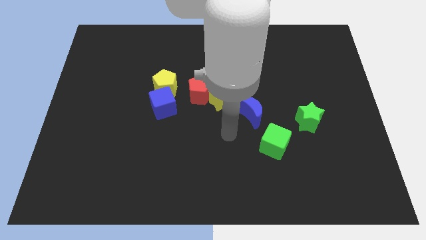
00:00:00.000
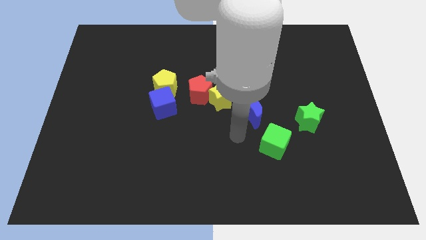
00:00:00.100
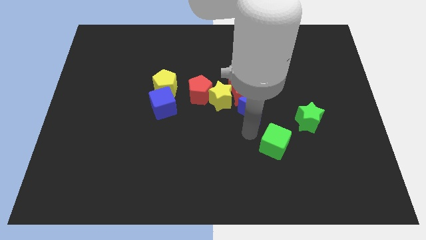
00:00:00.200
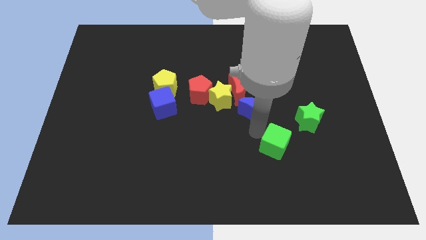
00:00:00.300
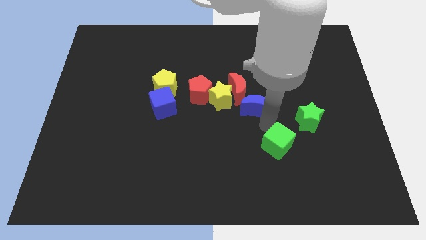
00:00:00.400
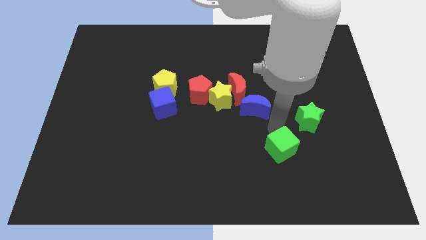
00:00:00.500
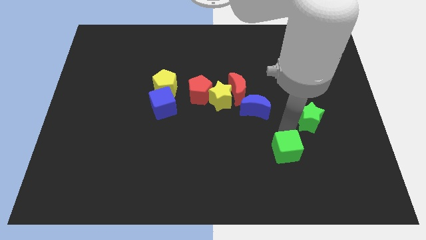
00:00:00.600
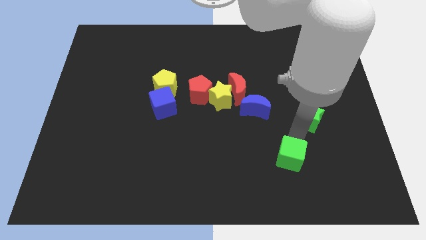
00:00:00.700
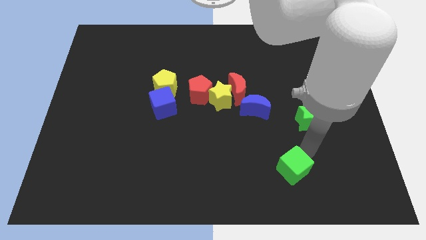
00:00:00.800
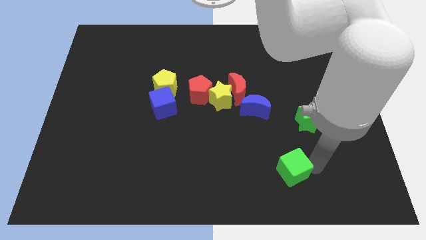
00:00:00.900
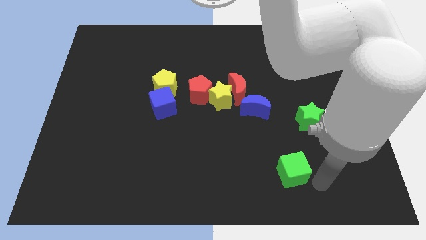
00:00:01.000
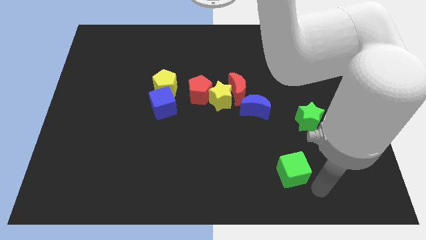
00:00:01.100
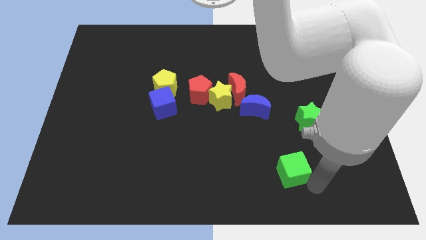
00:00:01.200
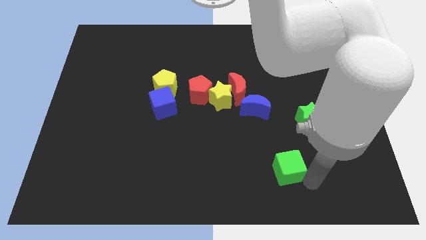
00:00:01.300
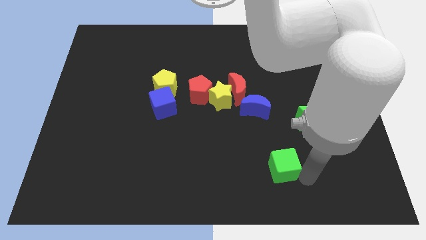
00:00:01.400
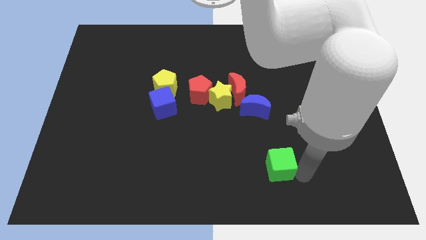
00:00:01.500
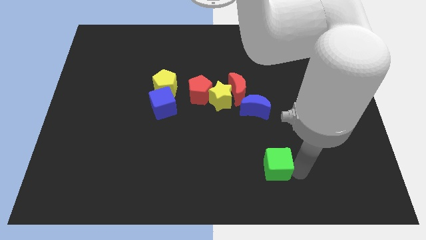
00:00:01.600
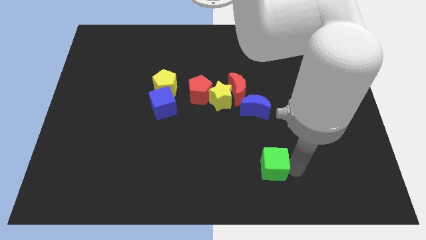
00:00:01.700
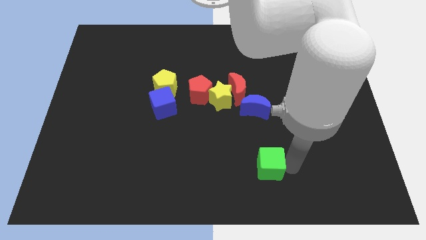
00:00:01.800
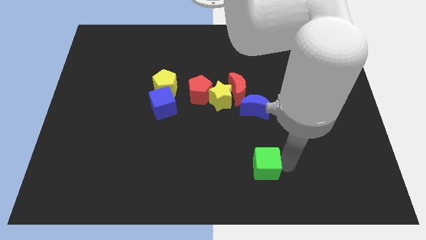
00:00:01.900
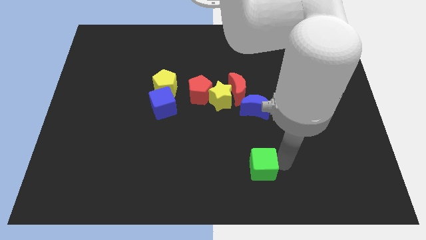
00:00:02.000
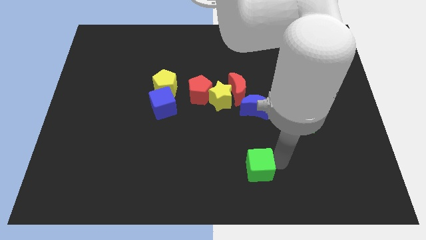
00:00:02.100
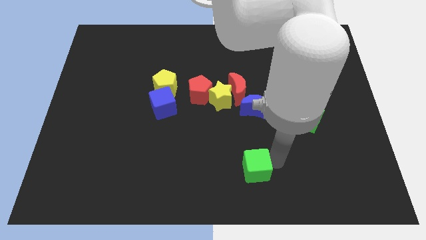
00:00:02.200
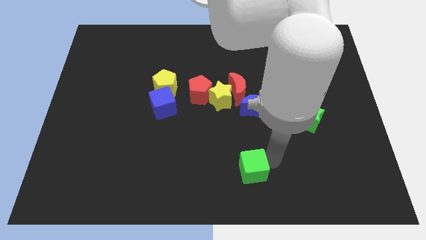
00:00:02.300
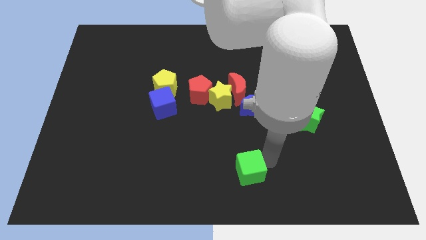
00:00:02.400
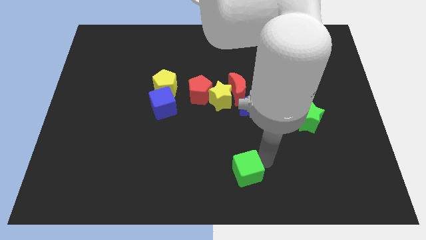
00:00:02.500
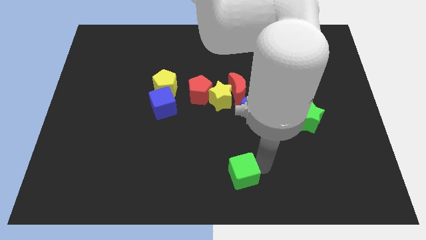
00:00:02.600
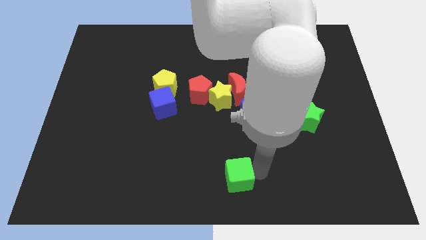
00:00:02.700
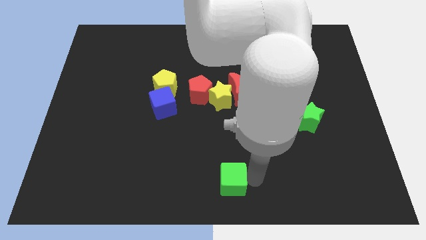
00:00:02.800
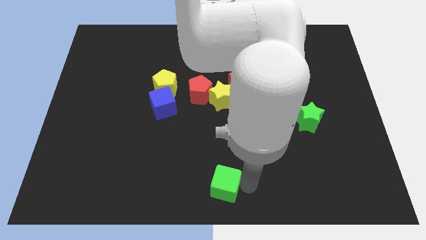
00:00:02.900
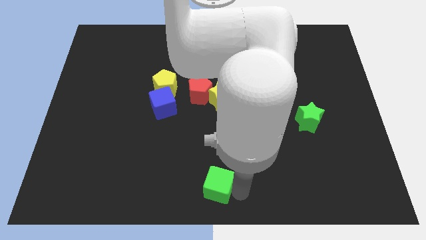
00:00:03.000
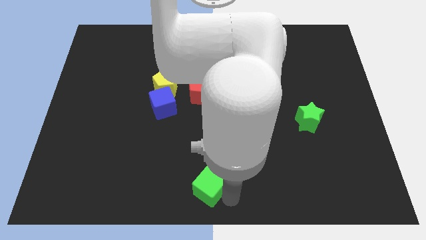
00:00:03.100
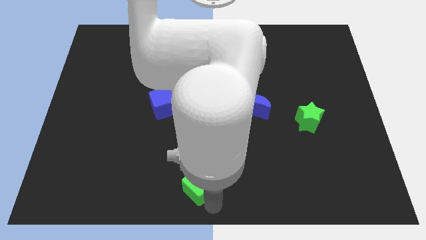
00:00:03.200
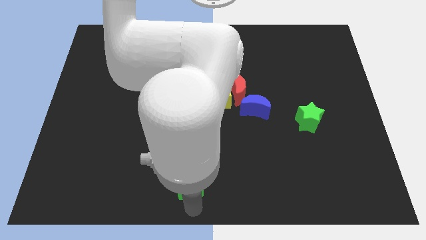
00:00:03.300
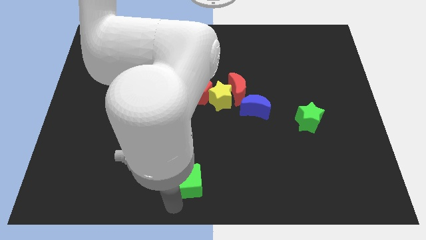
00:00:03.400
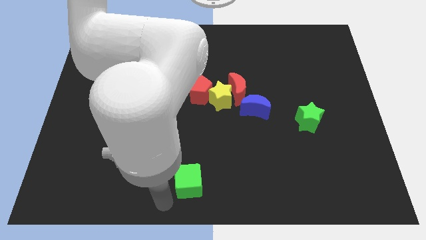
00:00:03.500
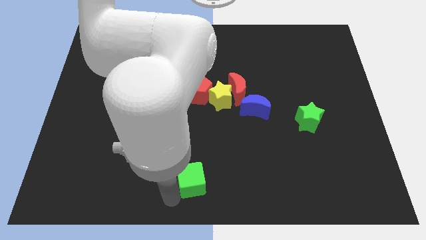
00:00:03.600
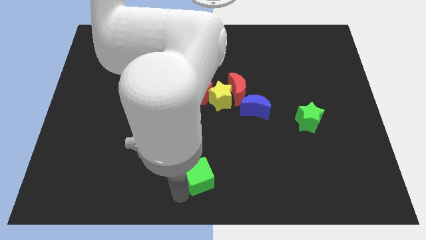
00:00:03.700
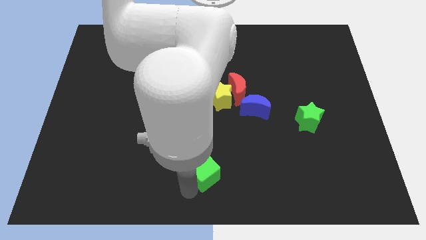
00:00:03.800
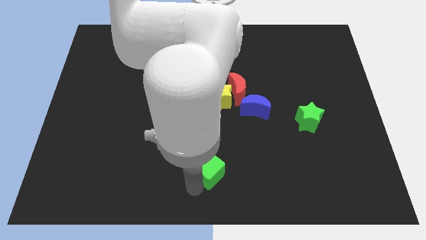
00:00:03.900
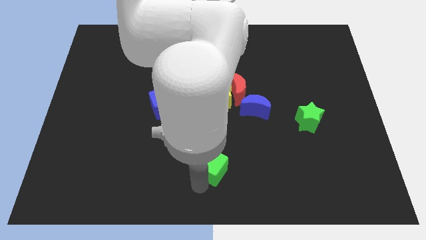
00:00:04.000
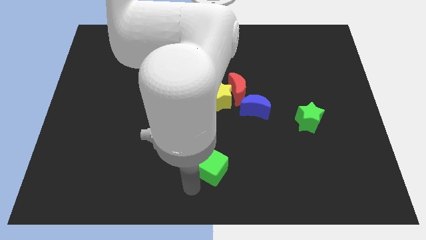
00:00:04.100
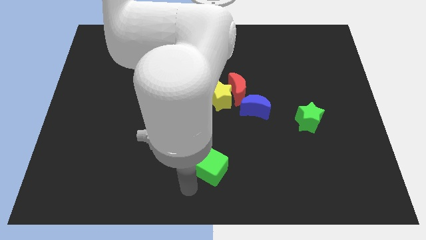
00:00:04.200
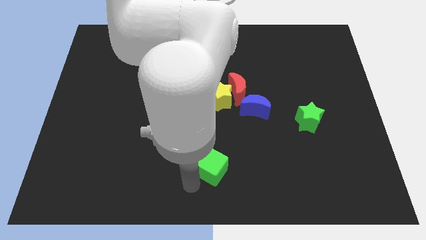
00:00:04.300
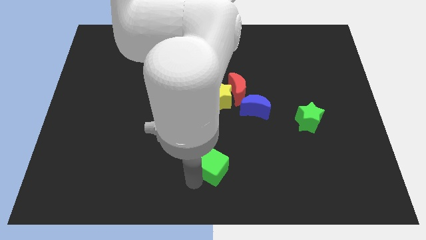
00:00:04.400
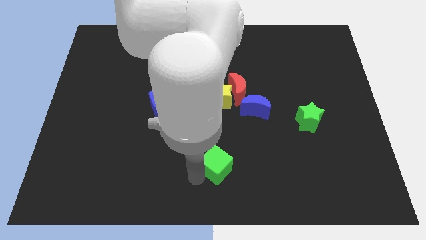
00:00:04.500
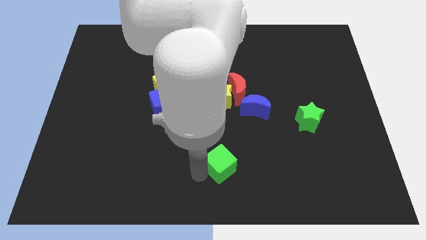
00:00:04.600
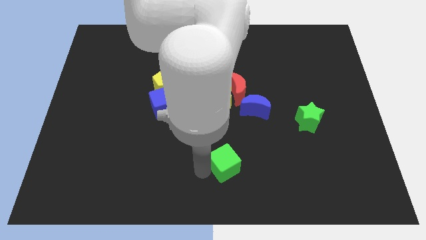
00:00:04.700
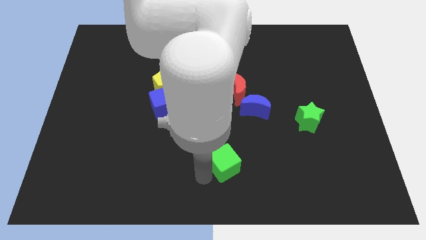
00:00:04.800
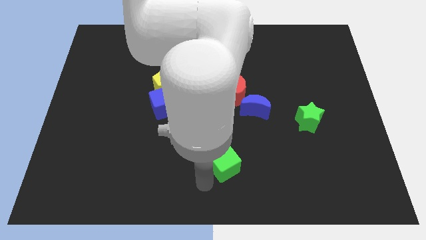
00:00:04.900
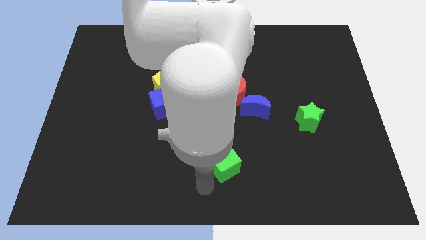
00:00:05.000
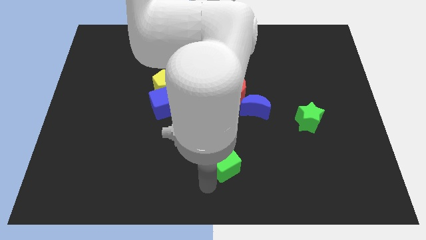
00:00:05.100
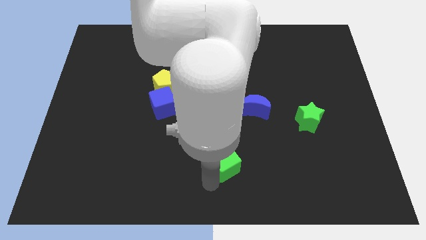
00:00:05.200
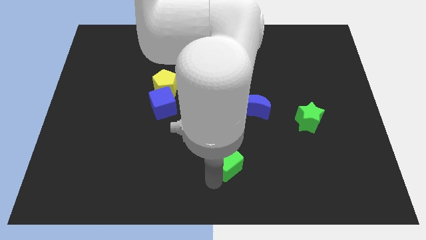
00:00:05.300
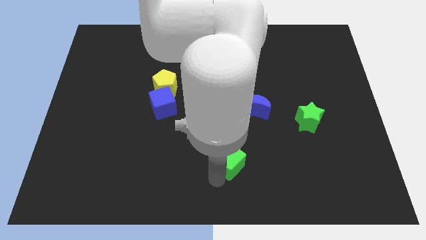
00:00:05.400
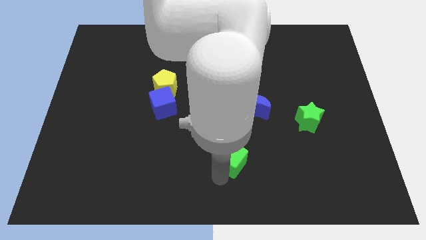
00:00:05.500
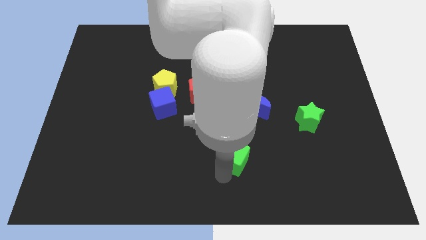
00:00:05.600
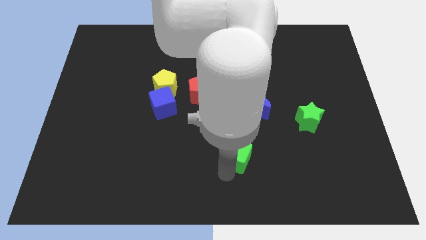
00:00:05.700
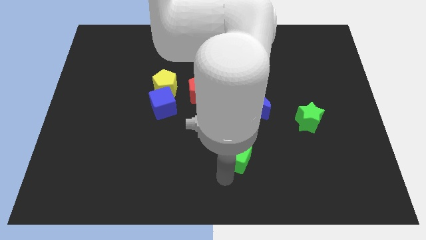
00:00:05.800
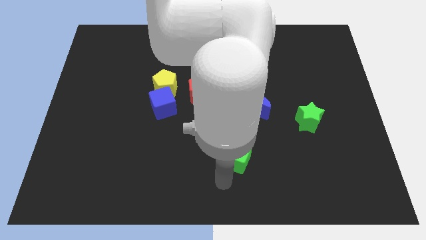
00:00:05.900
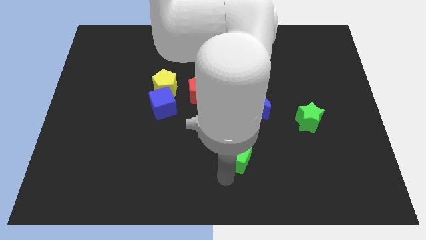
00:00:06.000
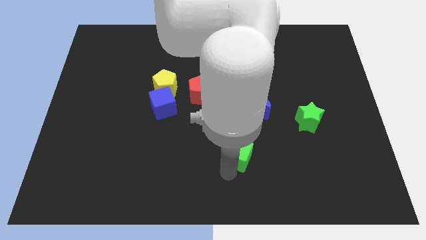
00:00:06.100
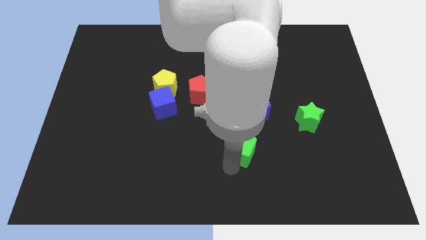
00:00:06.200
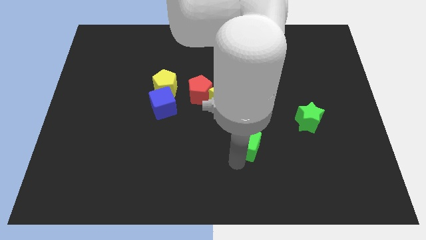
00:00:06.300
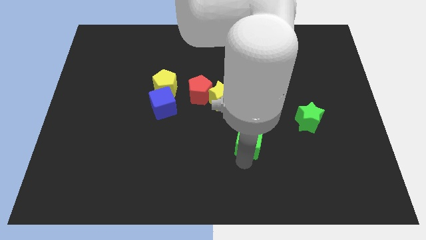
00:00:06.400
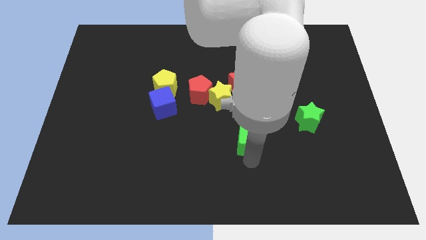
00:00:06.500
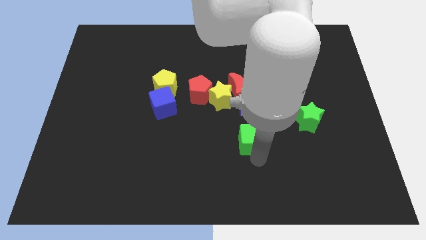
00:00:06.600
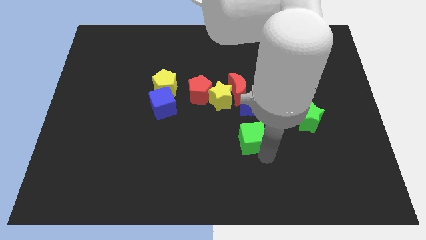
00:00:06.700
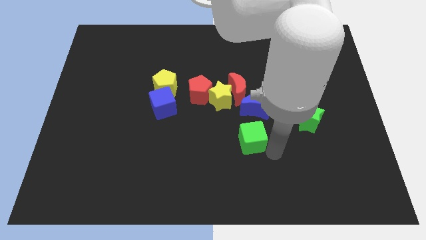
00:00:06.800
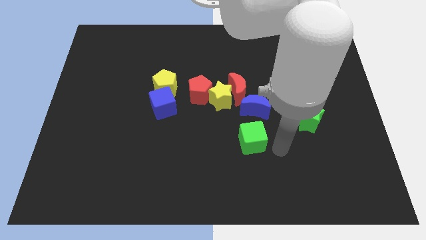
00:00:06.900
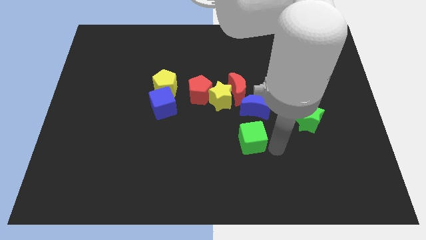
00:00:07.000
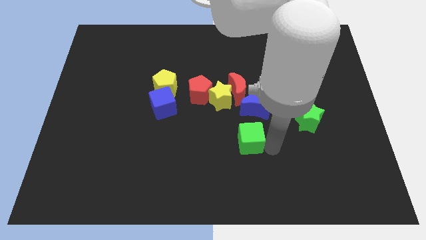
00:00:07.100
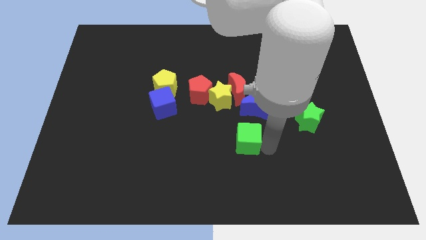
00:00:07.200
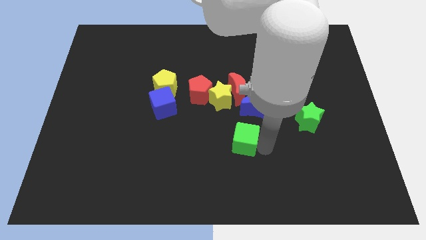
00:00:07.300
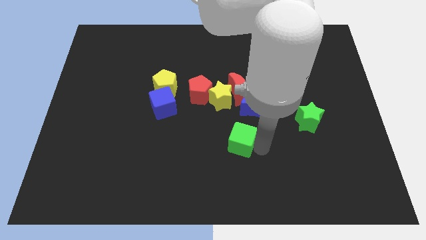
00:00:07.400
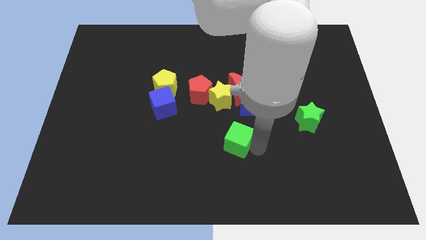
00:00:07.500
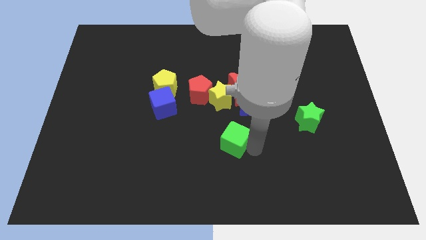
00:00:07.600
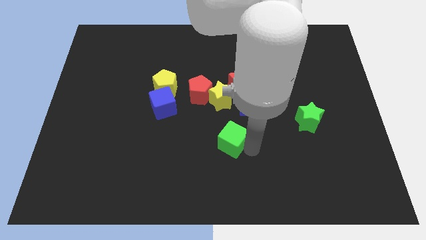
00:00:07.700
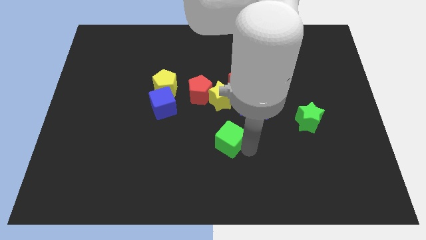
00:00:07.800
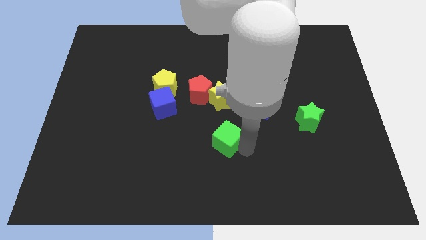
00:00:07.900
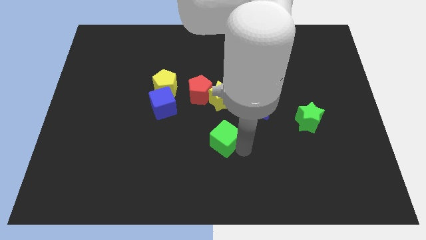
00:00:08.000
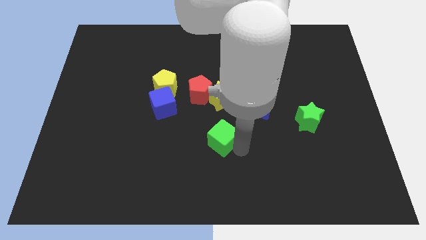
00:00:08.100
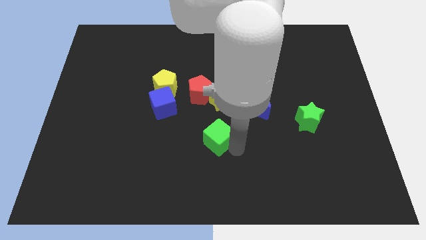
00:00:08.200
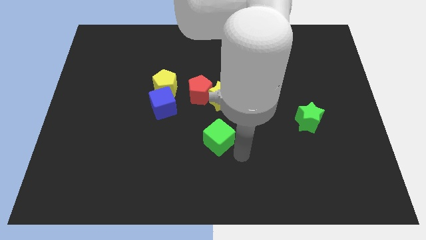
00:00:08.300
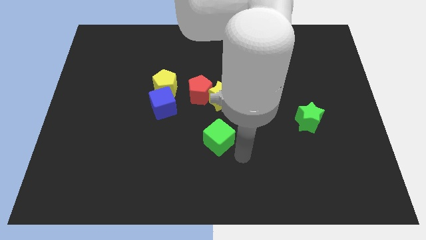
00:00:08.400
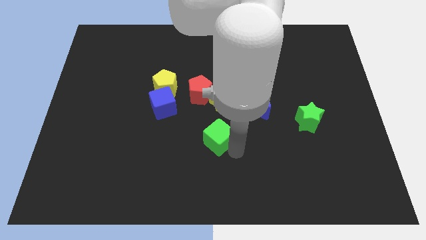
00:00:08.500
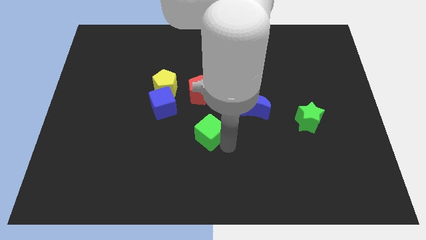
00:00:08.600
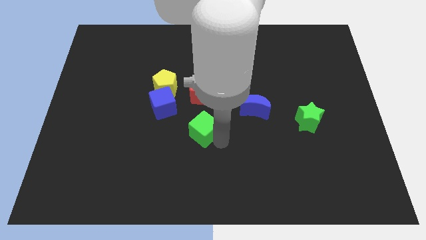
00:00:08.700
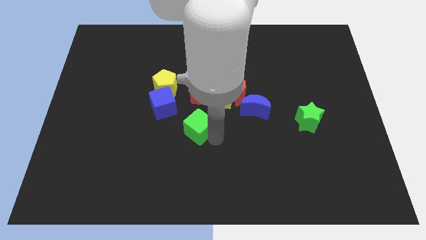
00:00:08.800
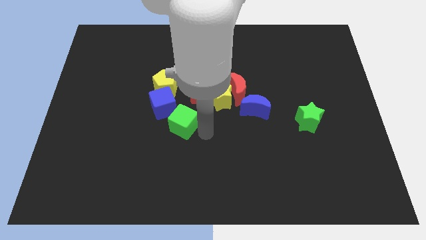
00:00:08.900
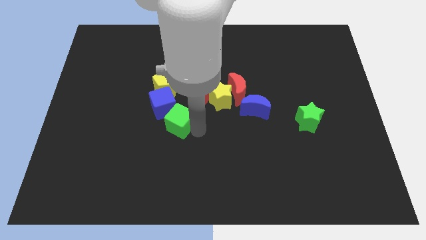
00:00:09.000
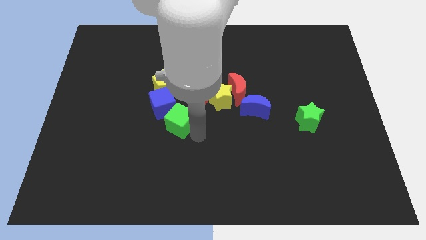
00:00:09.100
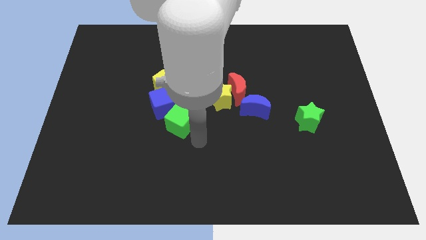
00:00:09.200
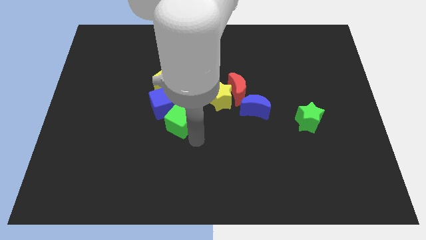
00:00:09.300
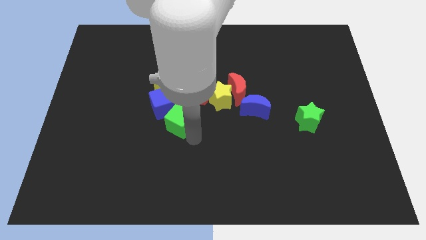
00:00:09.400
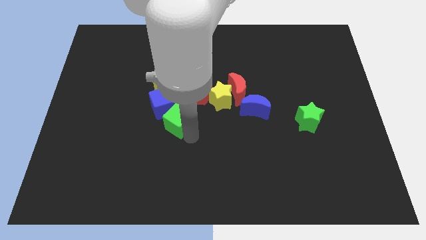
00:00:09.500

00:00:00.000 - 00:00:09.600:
put the green cube next to the blue cube
